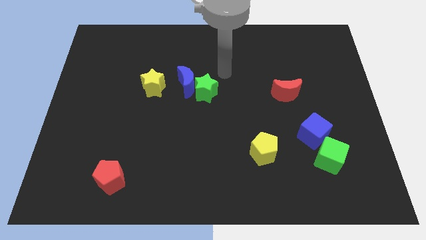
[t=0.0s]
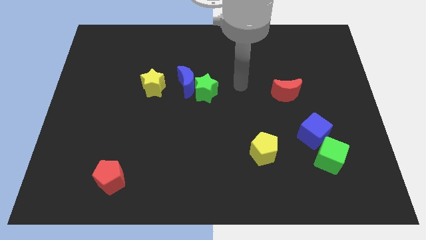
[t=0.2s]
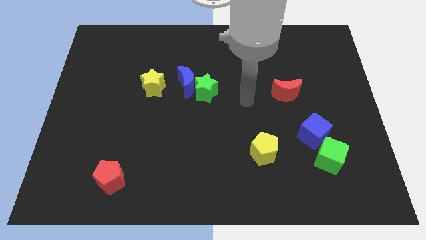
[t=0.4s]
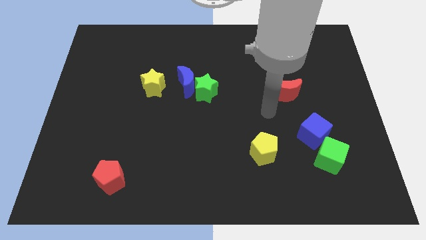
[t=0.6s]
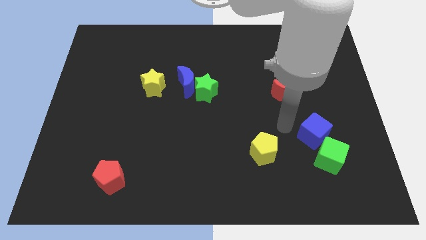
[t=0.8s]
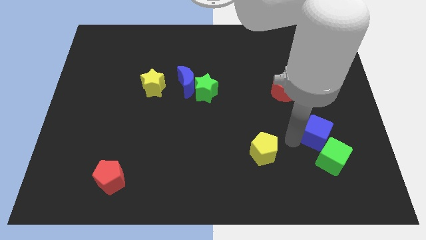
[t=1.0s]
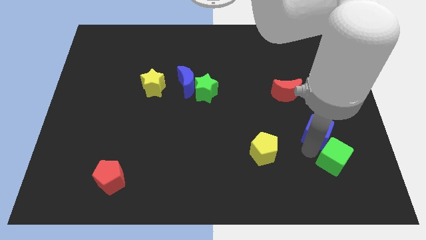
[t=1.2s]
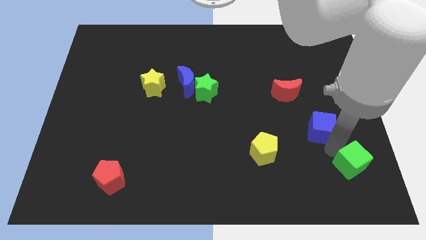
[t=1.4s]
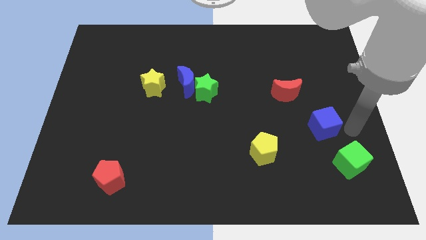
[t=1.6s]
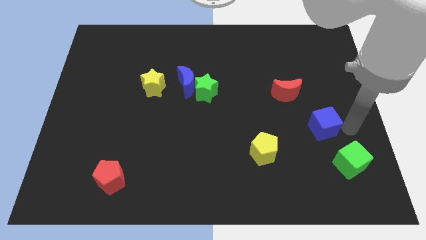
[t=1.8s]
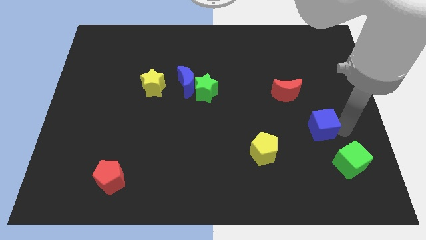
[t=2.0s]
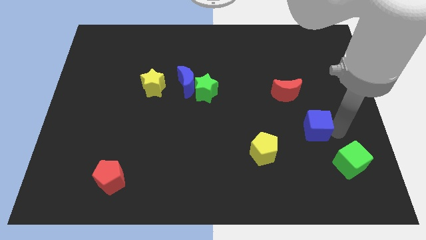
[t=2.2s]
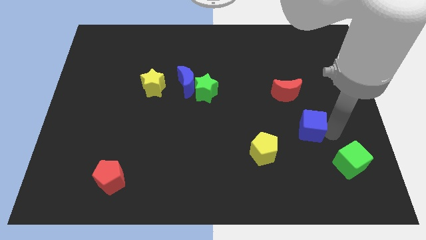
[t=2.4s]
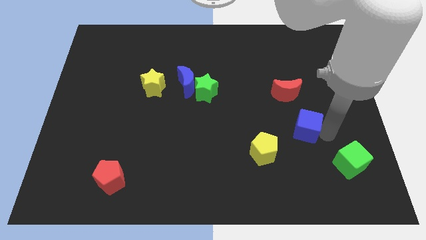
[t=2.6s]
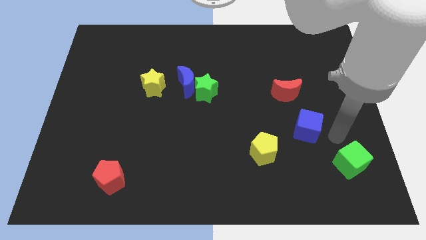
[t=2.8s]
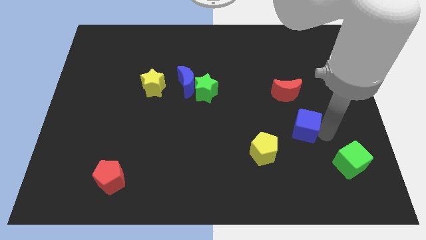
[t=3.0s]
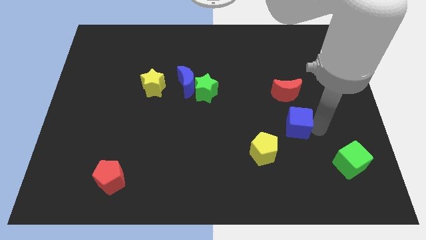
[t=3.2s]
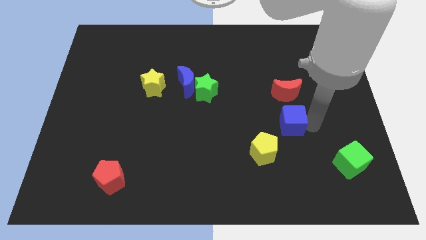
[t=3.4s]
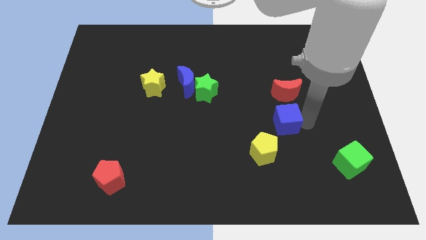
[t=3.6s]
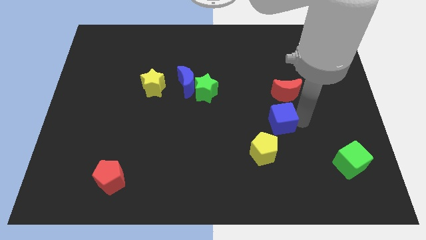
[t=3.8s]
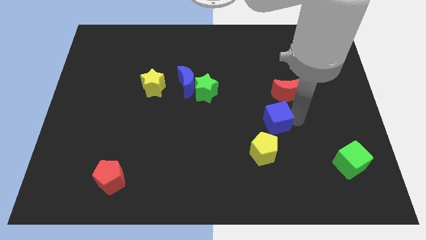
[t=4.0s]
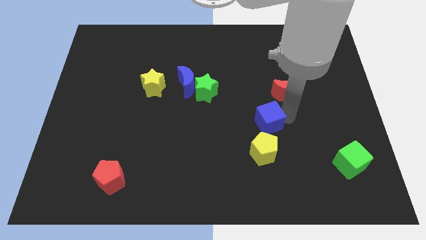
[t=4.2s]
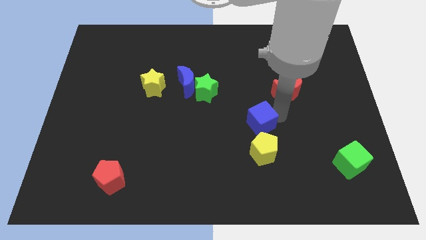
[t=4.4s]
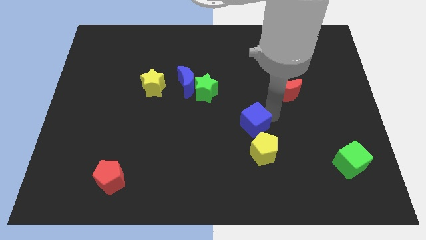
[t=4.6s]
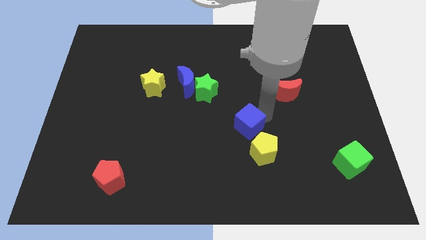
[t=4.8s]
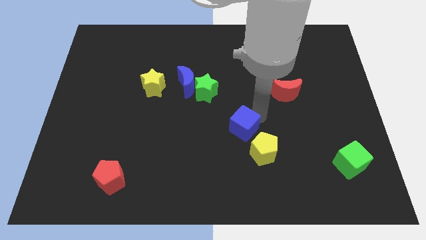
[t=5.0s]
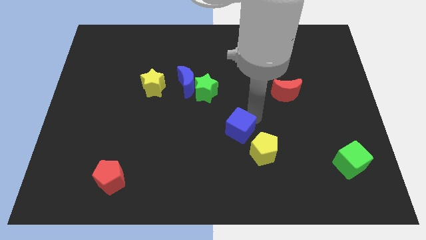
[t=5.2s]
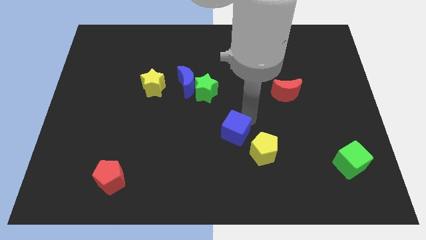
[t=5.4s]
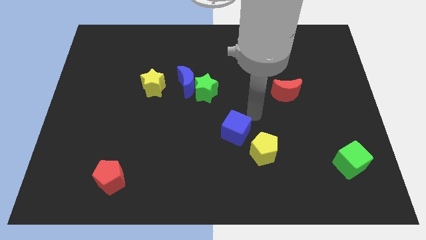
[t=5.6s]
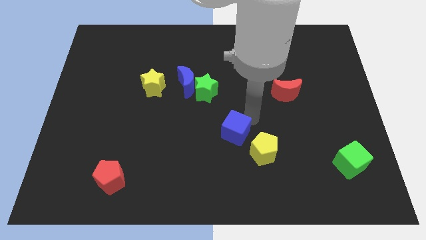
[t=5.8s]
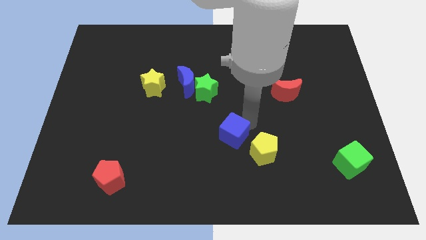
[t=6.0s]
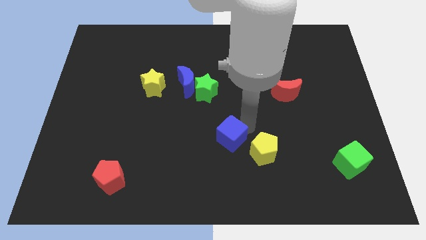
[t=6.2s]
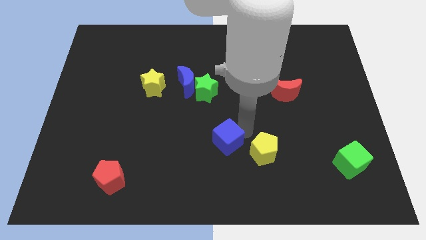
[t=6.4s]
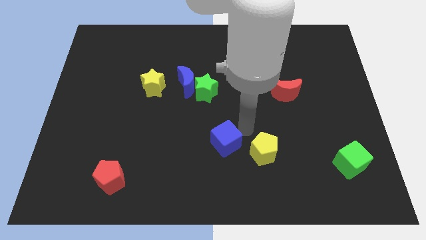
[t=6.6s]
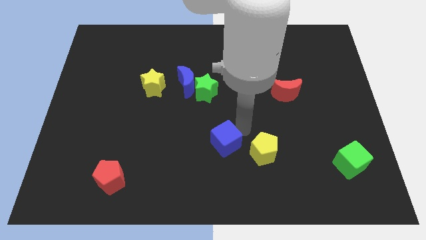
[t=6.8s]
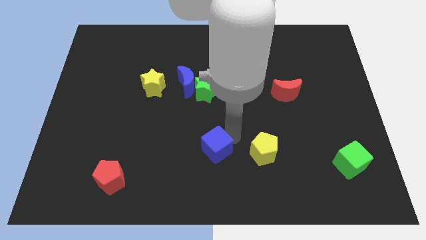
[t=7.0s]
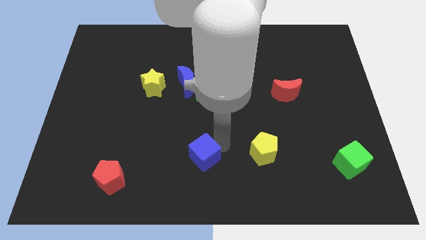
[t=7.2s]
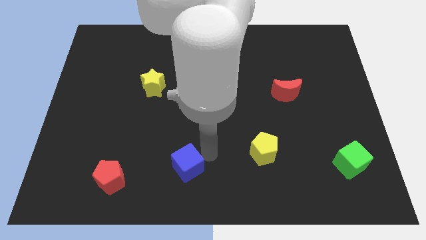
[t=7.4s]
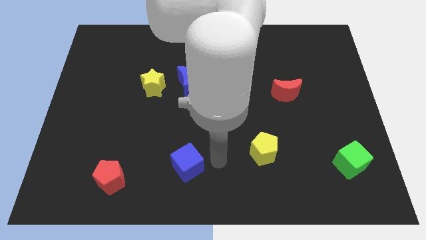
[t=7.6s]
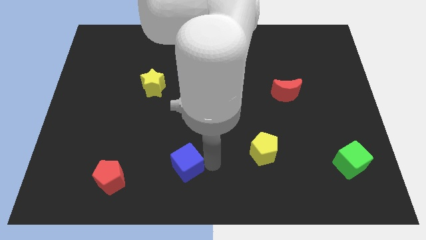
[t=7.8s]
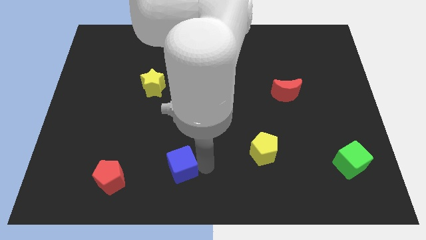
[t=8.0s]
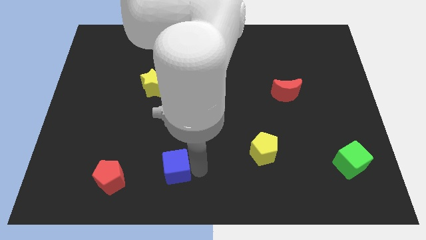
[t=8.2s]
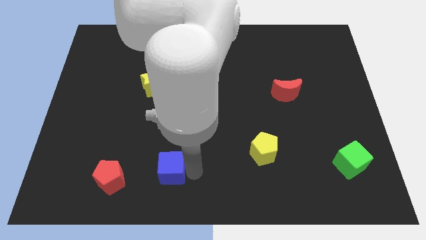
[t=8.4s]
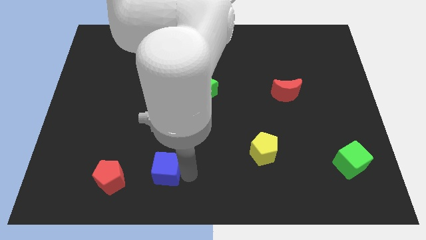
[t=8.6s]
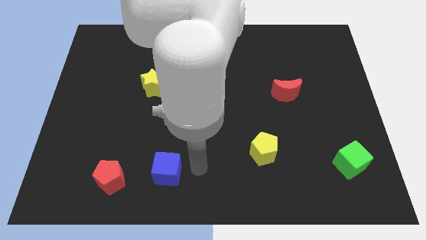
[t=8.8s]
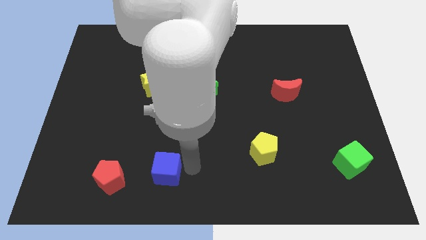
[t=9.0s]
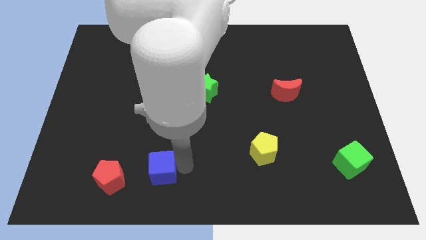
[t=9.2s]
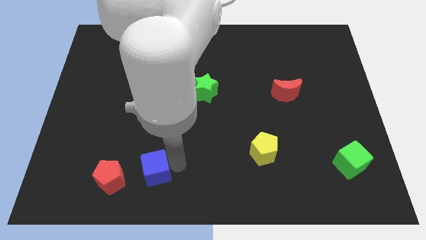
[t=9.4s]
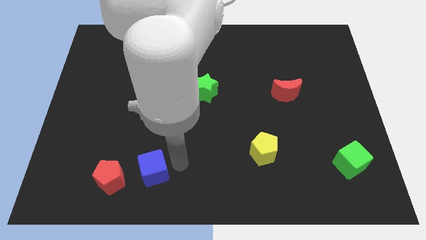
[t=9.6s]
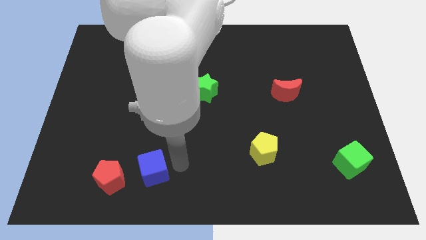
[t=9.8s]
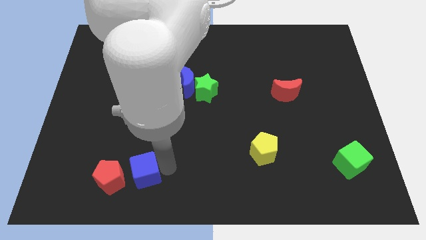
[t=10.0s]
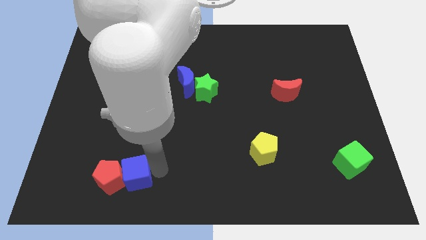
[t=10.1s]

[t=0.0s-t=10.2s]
slide the blue cube towards the red pentagon

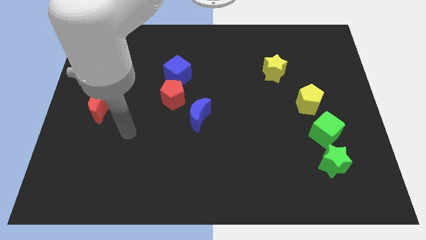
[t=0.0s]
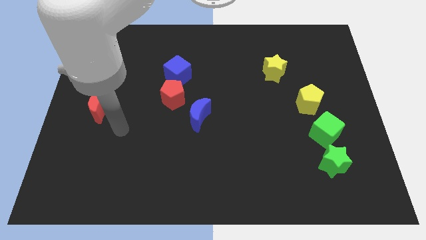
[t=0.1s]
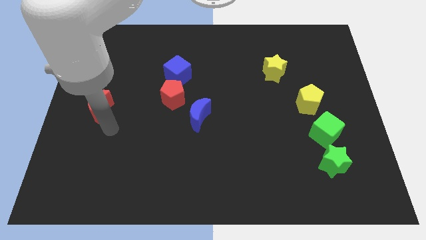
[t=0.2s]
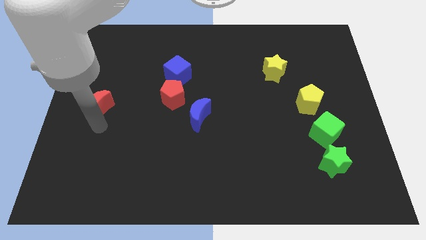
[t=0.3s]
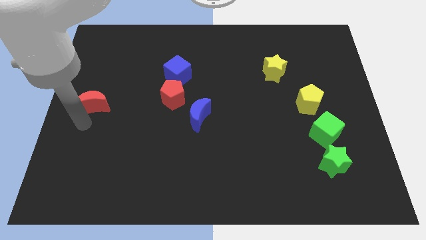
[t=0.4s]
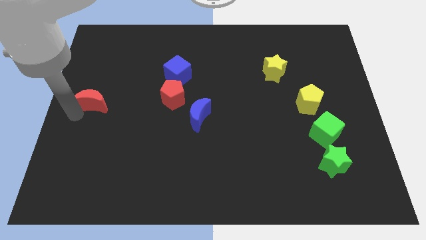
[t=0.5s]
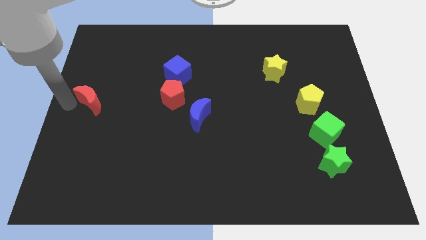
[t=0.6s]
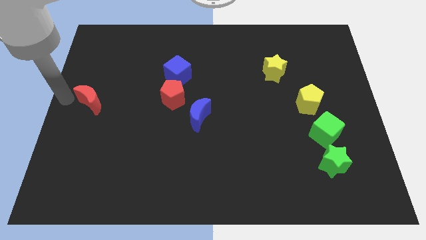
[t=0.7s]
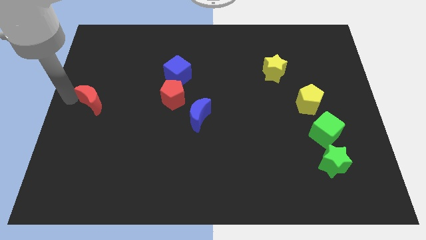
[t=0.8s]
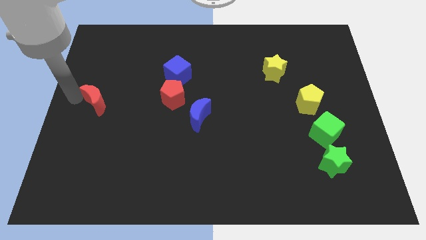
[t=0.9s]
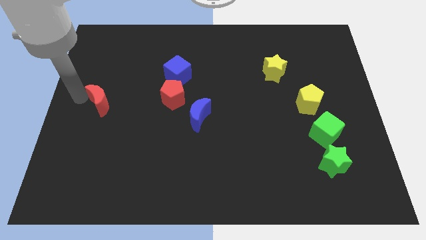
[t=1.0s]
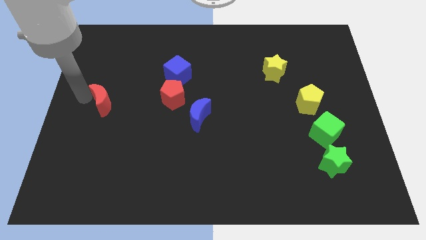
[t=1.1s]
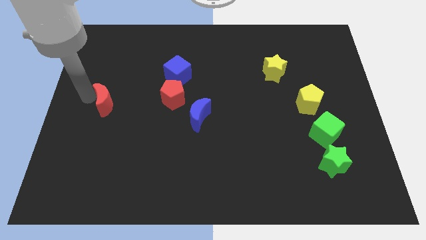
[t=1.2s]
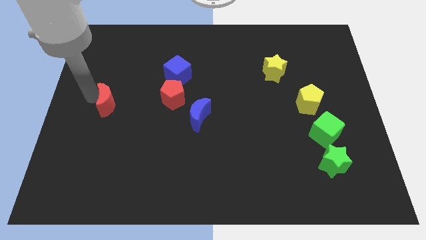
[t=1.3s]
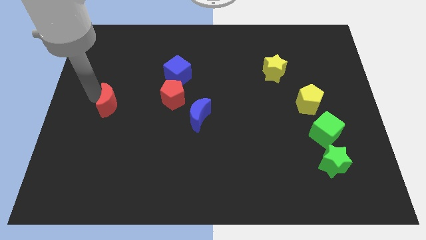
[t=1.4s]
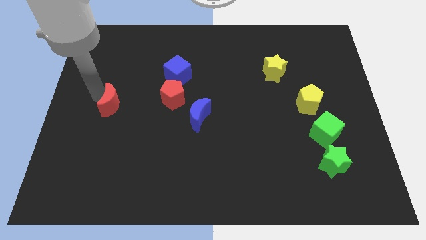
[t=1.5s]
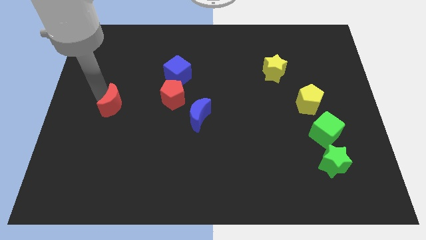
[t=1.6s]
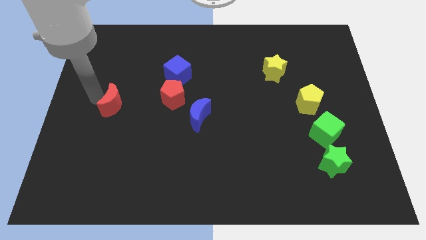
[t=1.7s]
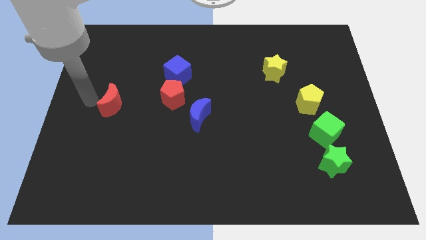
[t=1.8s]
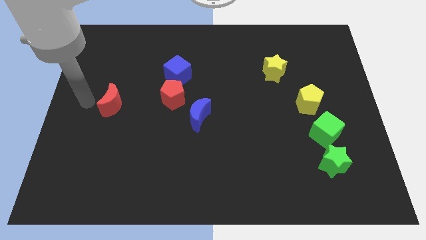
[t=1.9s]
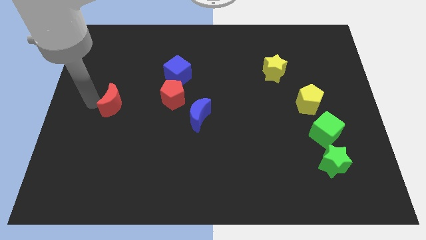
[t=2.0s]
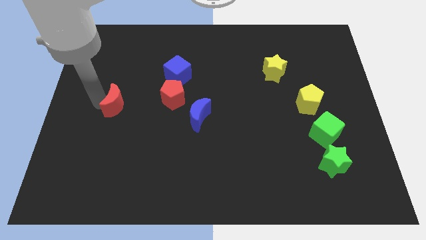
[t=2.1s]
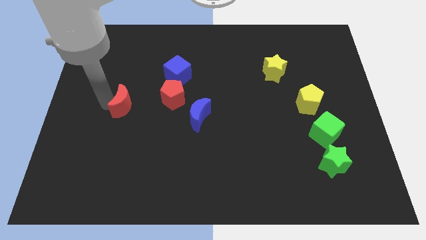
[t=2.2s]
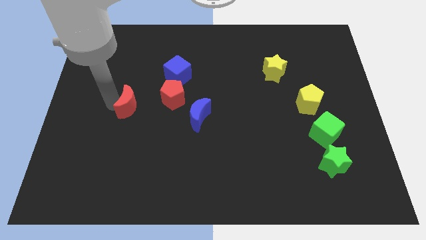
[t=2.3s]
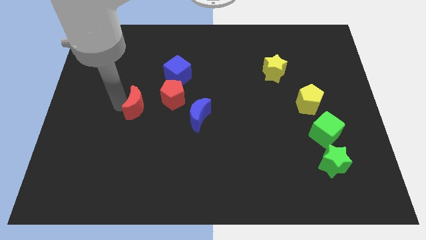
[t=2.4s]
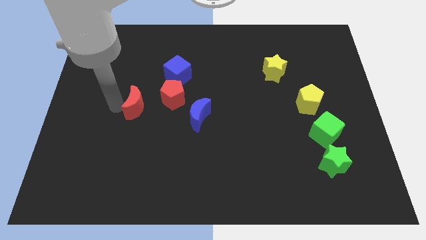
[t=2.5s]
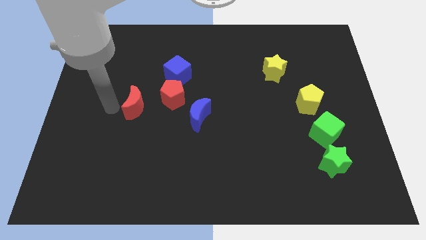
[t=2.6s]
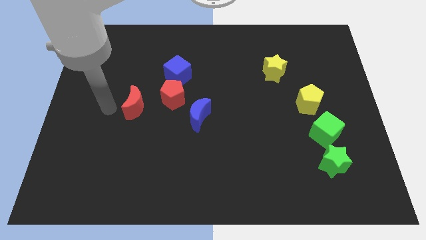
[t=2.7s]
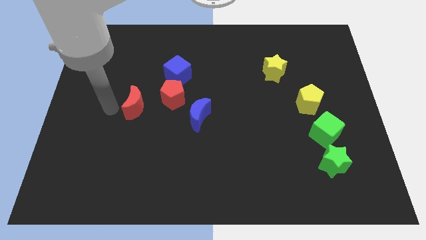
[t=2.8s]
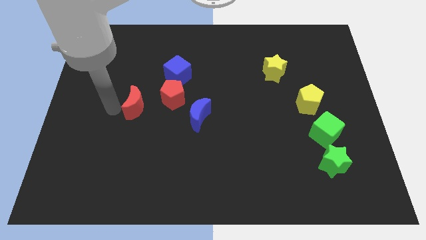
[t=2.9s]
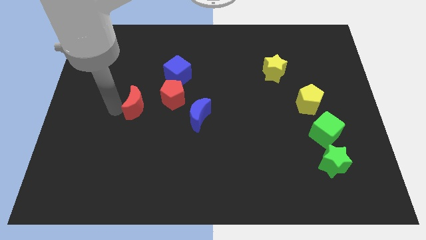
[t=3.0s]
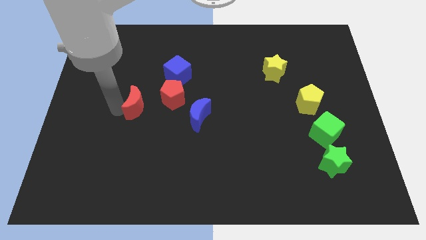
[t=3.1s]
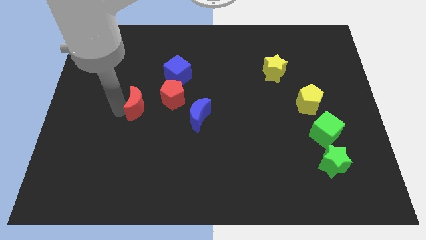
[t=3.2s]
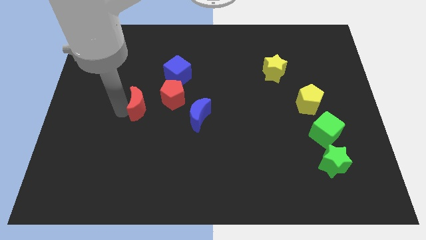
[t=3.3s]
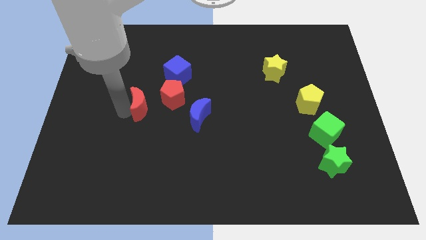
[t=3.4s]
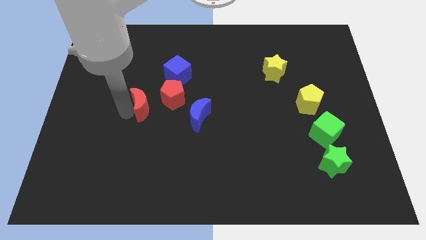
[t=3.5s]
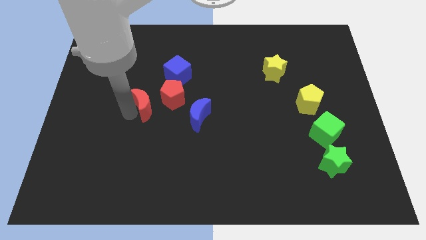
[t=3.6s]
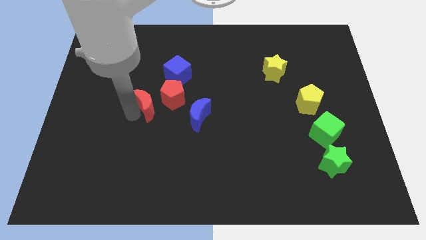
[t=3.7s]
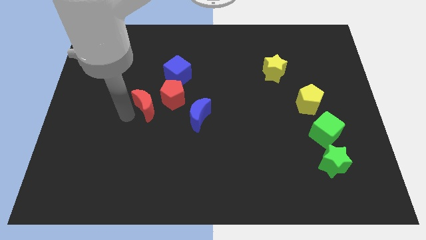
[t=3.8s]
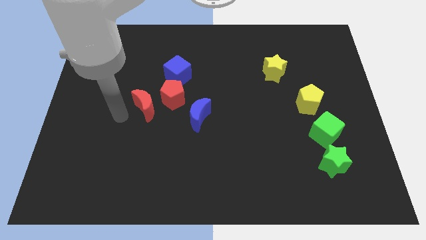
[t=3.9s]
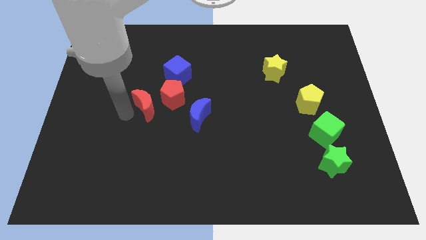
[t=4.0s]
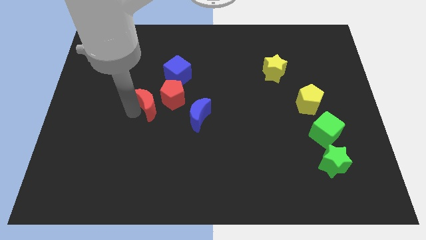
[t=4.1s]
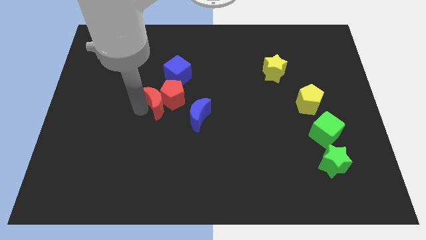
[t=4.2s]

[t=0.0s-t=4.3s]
slide the red moon close to the red pentagon
